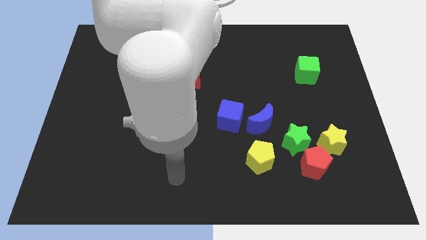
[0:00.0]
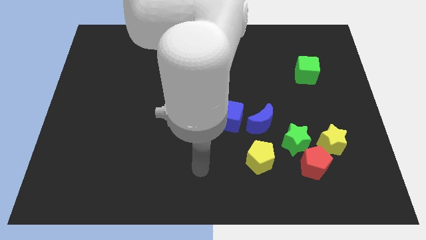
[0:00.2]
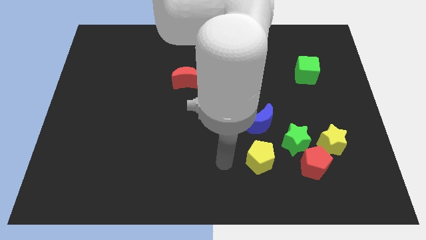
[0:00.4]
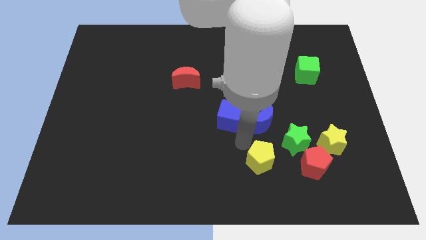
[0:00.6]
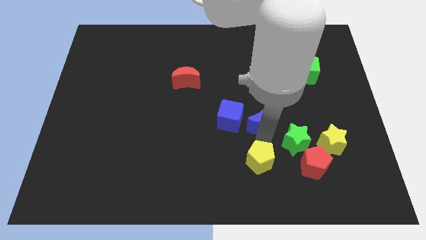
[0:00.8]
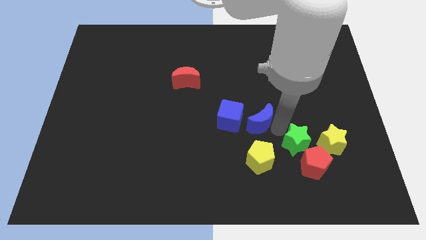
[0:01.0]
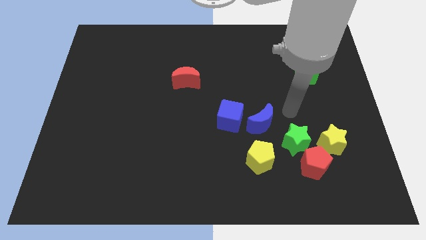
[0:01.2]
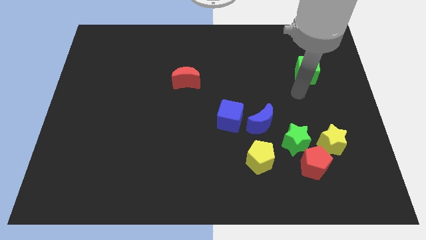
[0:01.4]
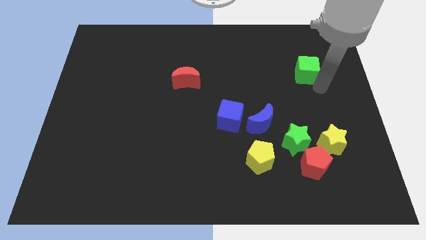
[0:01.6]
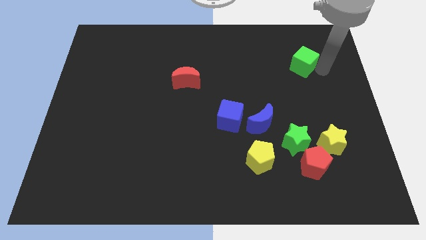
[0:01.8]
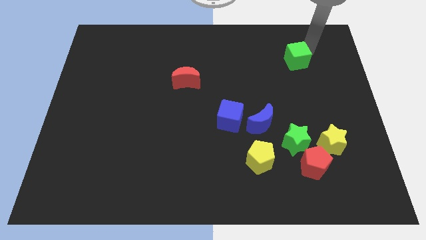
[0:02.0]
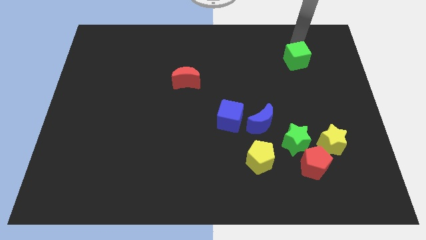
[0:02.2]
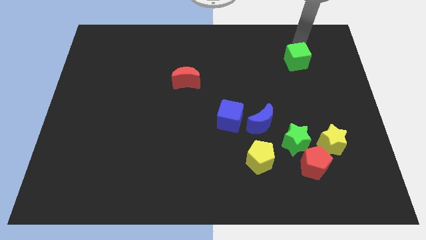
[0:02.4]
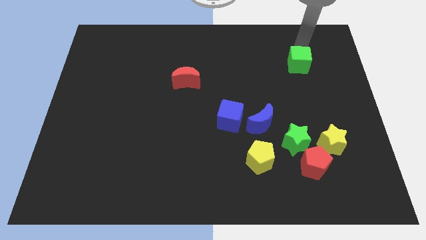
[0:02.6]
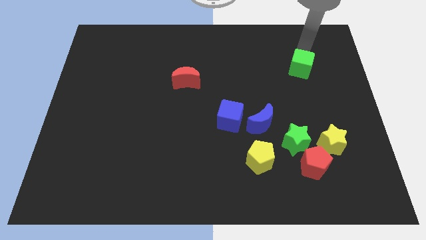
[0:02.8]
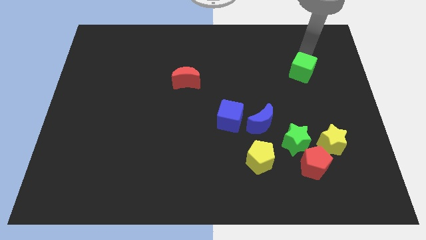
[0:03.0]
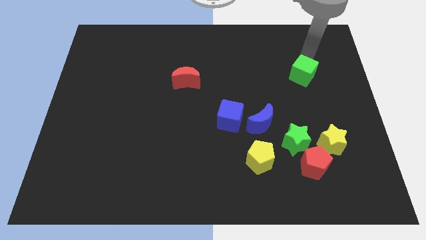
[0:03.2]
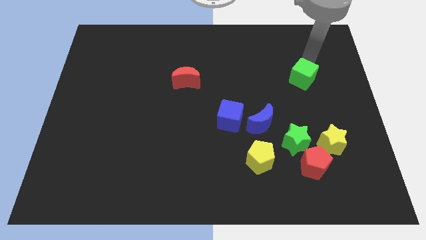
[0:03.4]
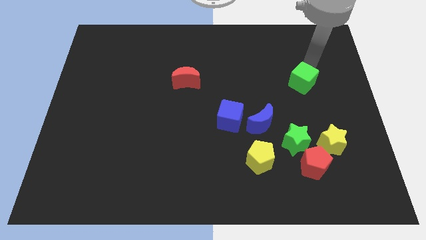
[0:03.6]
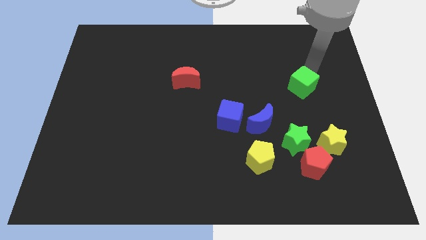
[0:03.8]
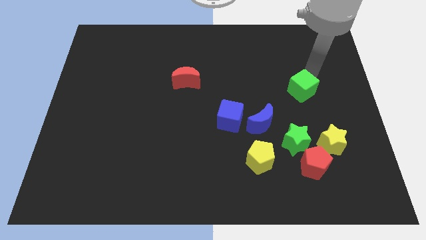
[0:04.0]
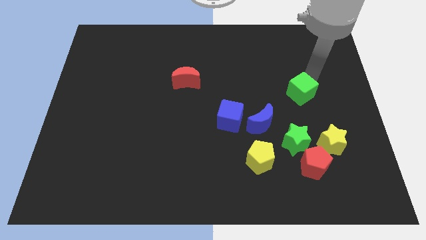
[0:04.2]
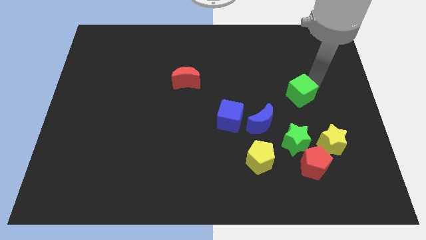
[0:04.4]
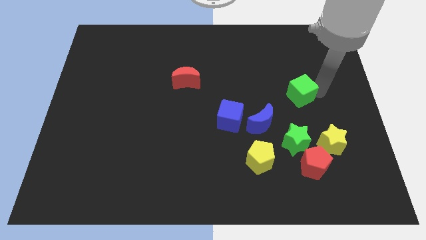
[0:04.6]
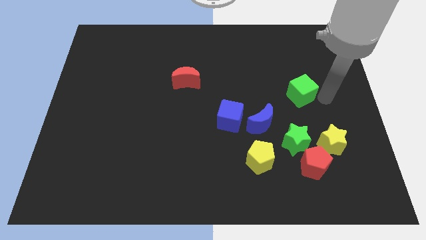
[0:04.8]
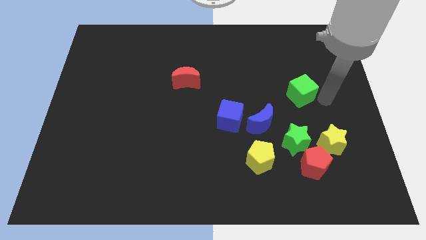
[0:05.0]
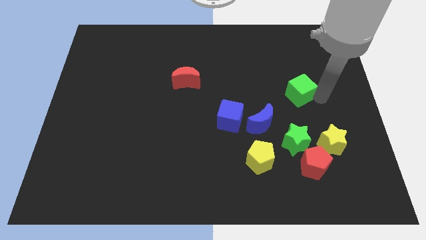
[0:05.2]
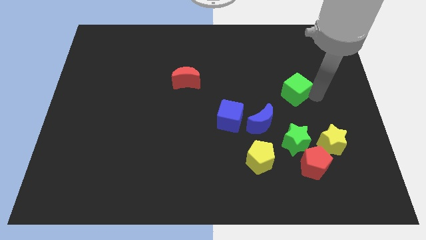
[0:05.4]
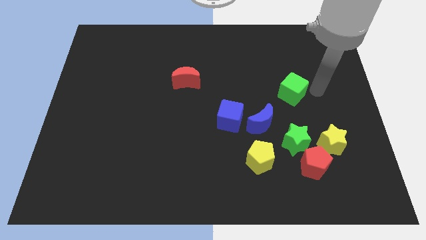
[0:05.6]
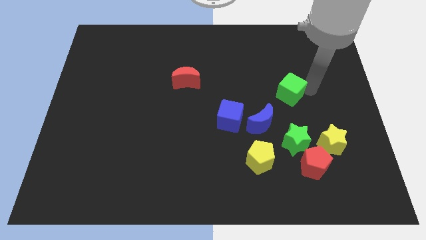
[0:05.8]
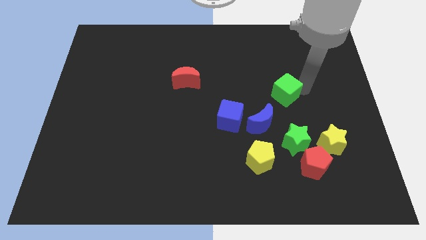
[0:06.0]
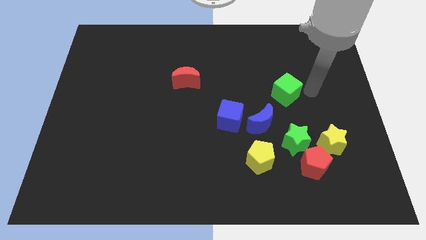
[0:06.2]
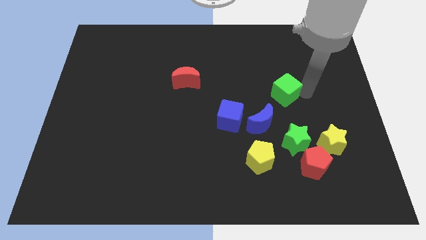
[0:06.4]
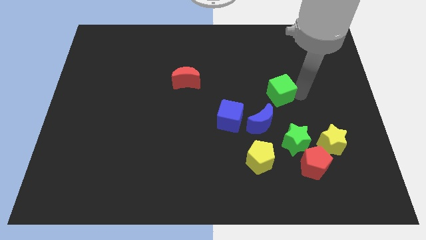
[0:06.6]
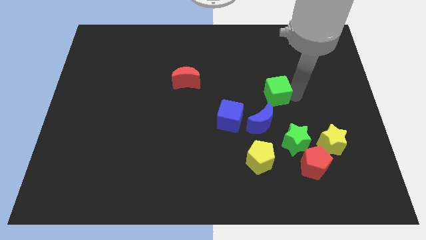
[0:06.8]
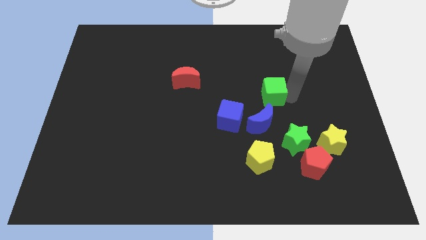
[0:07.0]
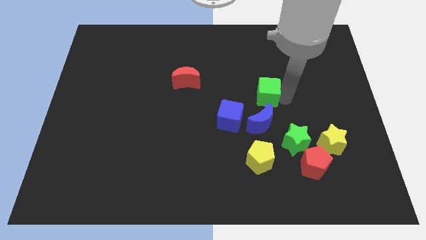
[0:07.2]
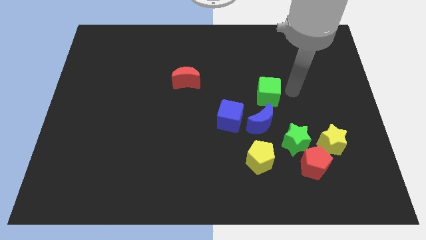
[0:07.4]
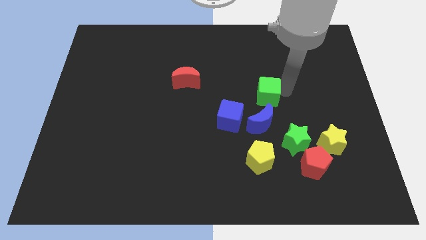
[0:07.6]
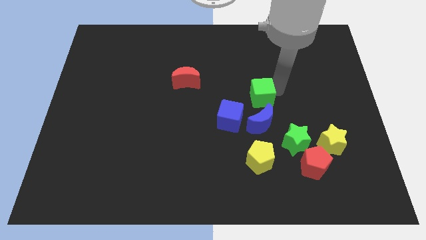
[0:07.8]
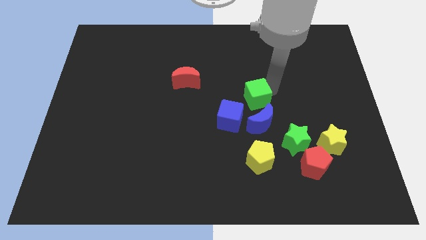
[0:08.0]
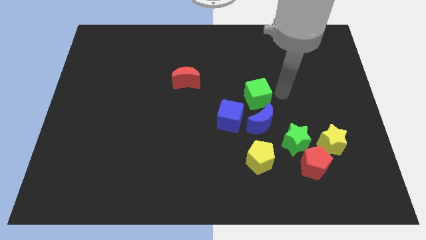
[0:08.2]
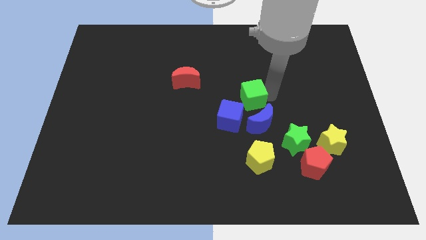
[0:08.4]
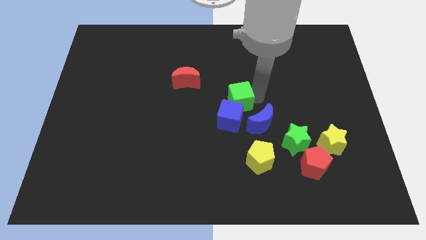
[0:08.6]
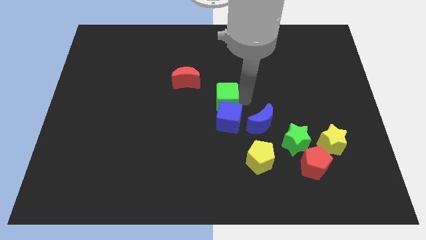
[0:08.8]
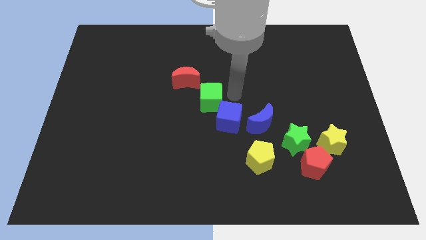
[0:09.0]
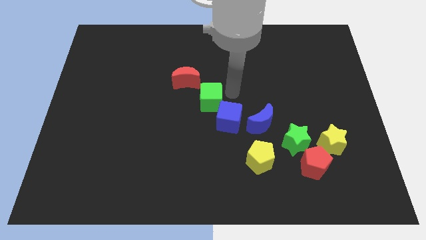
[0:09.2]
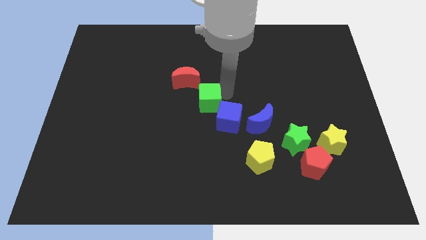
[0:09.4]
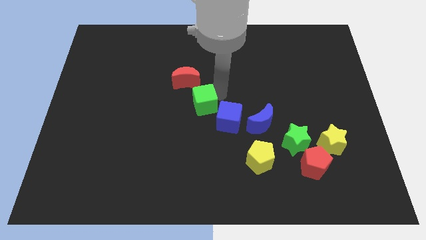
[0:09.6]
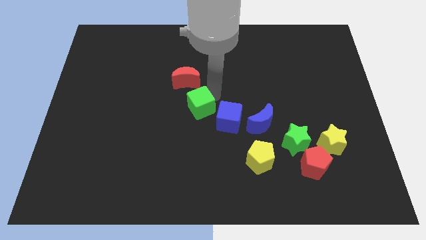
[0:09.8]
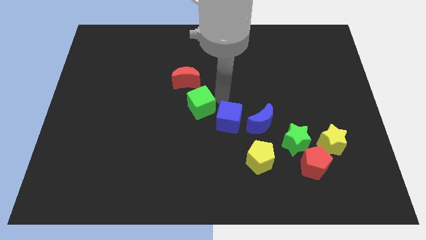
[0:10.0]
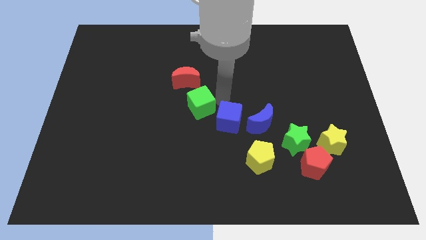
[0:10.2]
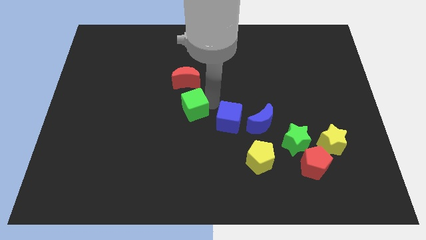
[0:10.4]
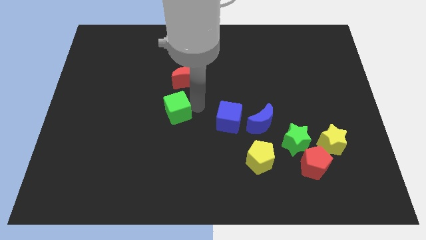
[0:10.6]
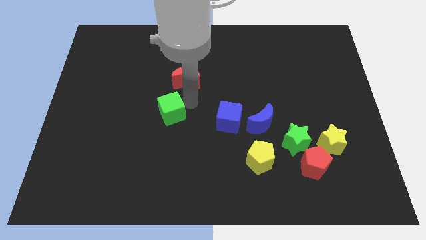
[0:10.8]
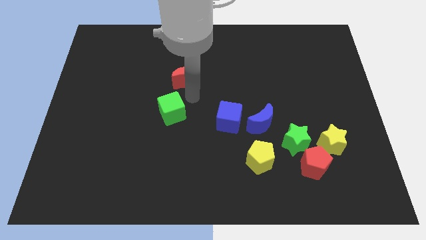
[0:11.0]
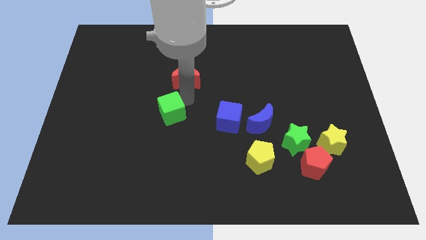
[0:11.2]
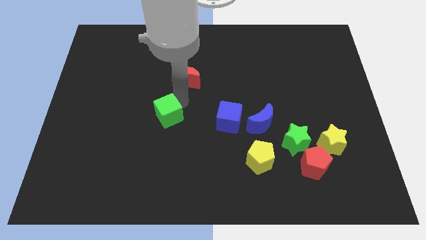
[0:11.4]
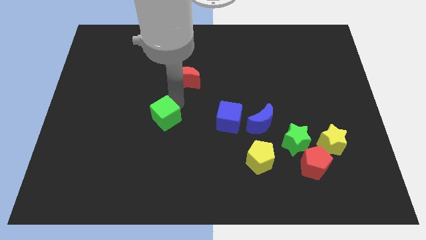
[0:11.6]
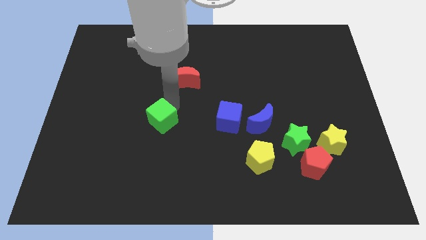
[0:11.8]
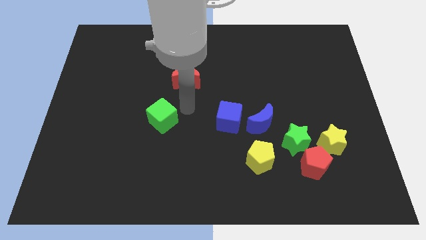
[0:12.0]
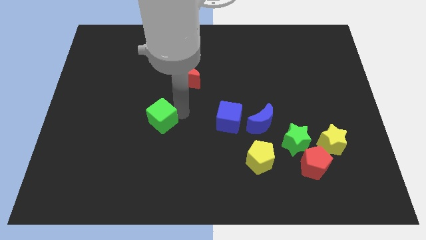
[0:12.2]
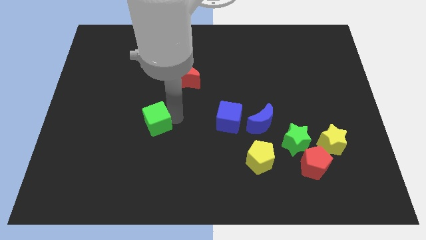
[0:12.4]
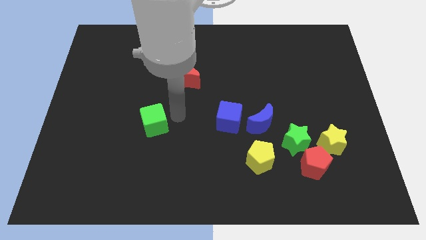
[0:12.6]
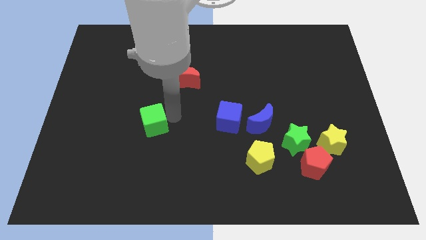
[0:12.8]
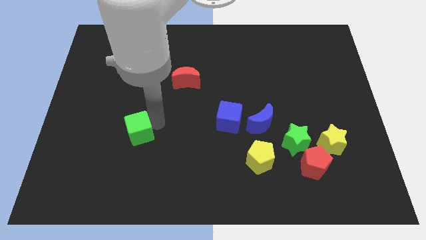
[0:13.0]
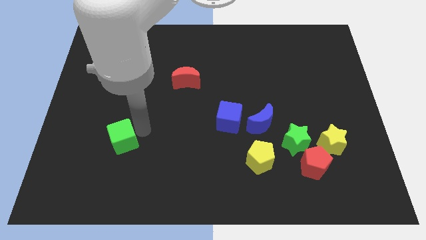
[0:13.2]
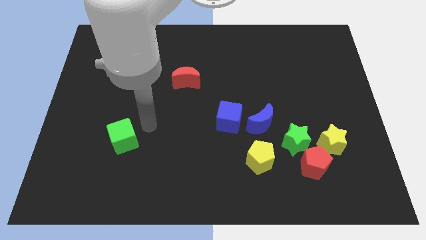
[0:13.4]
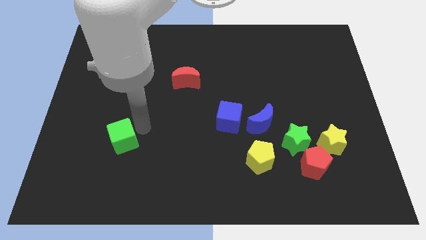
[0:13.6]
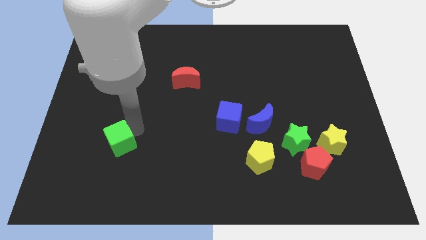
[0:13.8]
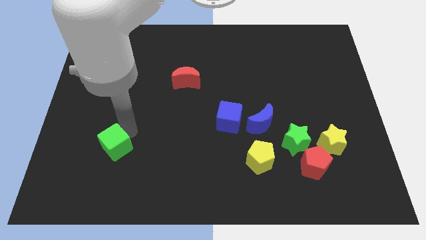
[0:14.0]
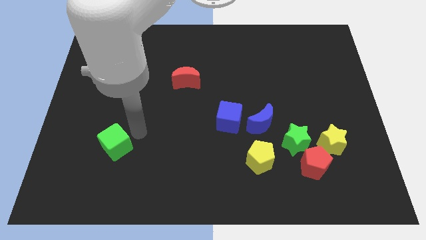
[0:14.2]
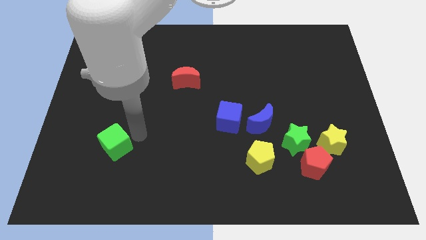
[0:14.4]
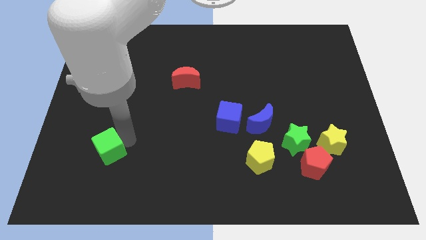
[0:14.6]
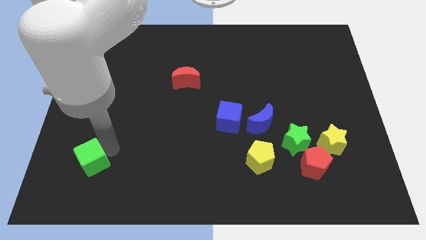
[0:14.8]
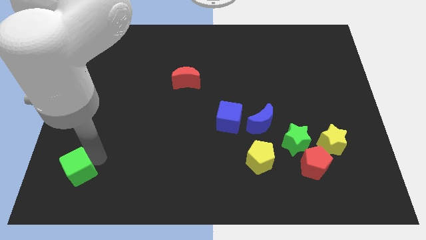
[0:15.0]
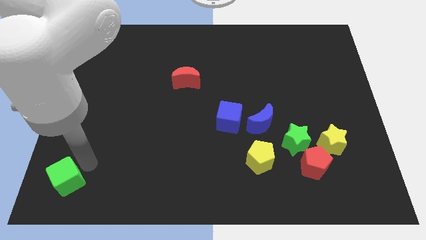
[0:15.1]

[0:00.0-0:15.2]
push the green cube to the bottom left corner
